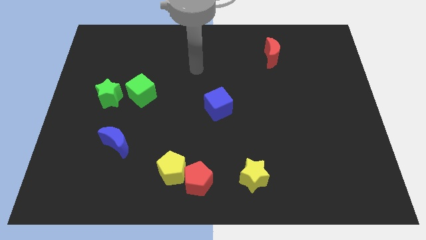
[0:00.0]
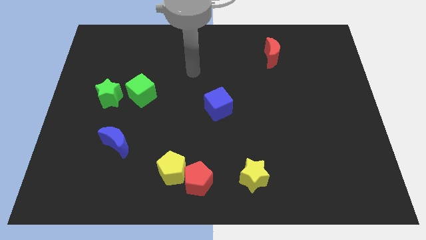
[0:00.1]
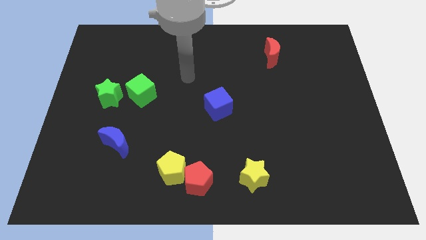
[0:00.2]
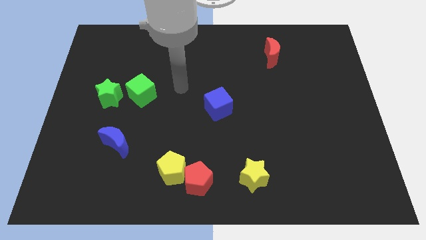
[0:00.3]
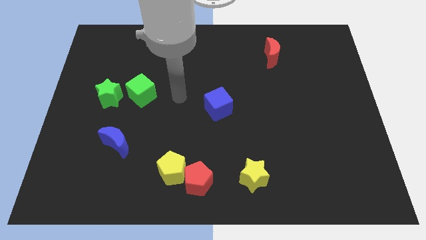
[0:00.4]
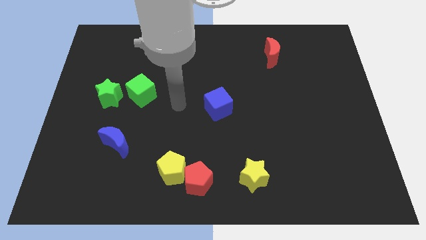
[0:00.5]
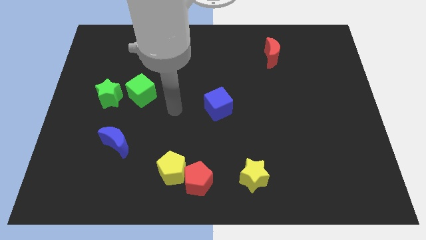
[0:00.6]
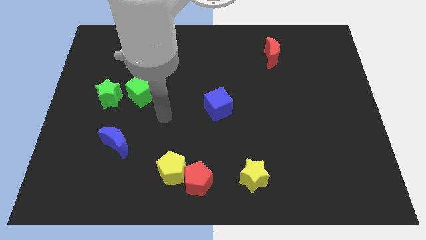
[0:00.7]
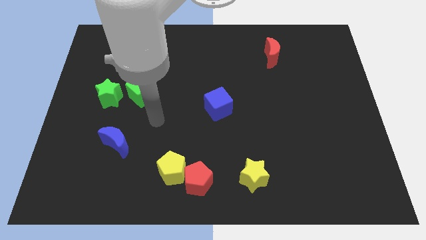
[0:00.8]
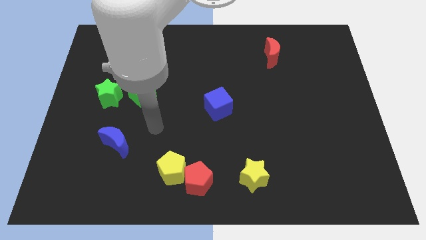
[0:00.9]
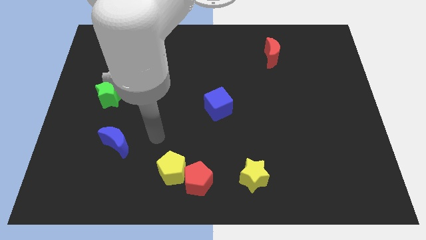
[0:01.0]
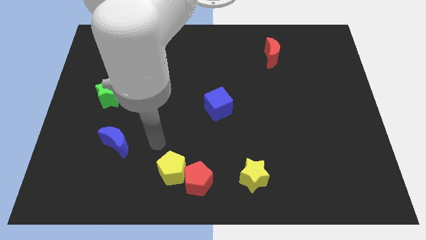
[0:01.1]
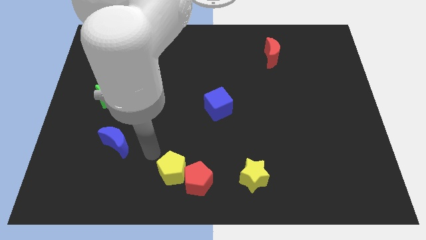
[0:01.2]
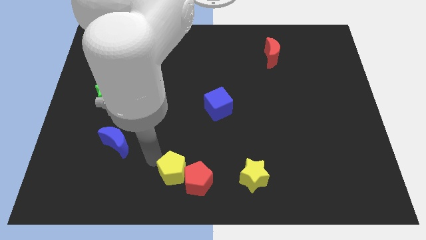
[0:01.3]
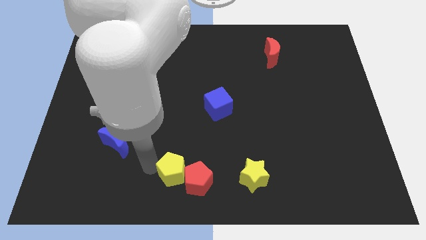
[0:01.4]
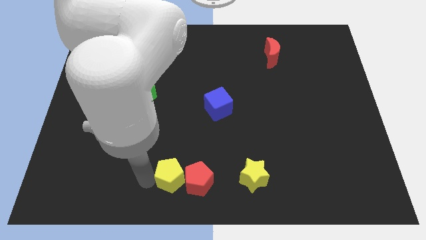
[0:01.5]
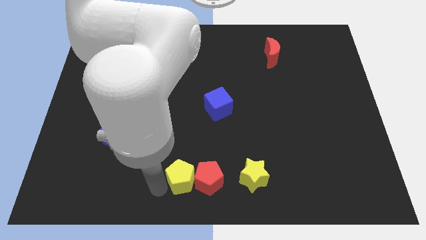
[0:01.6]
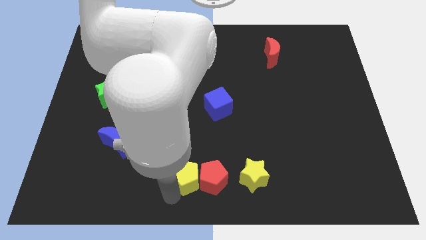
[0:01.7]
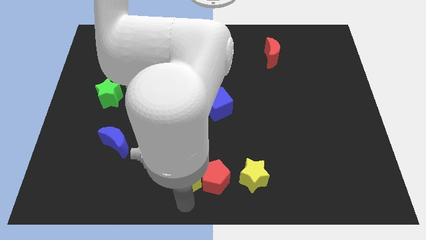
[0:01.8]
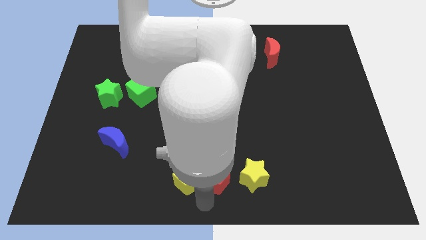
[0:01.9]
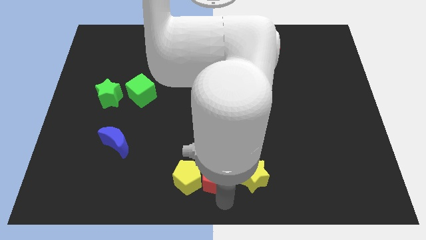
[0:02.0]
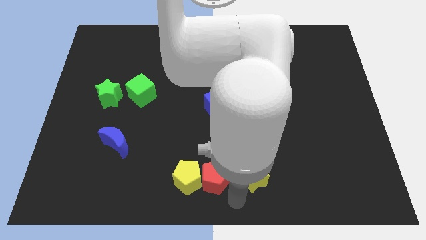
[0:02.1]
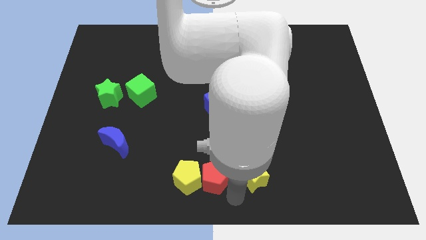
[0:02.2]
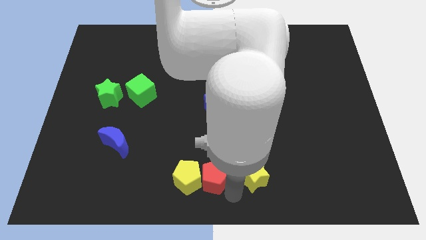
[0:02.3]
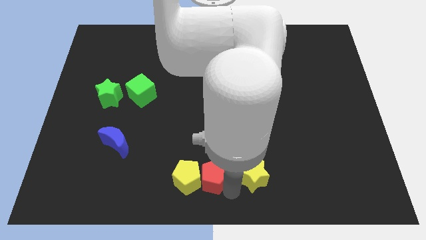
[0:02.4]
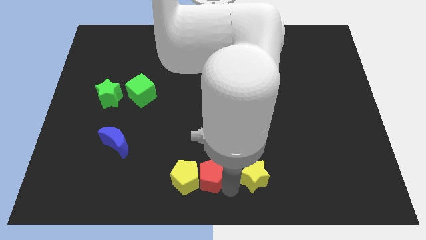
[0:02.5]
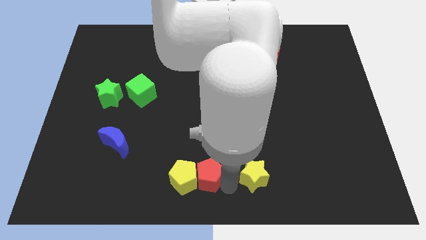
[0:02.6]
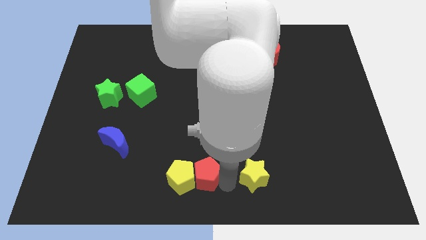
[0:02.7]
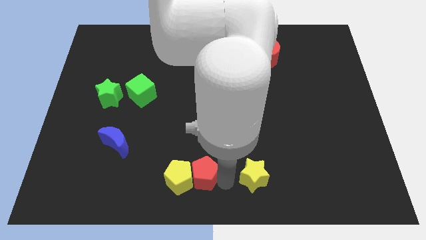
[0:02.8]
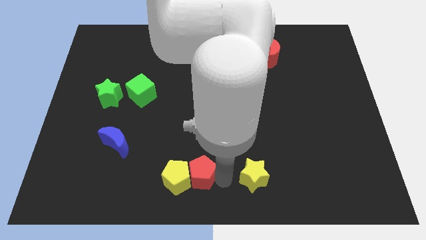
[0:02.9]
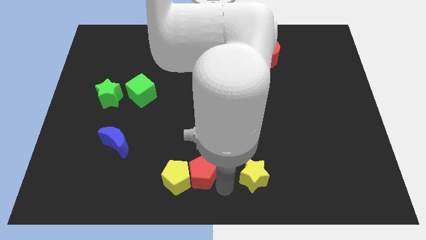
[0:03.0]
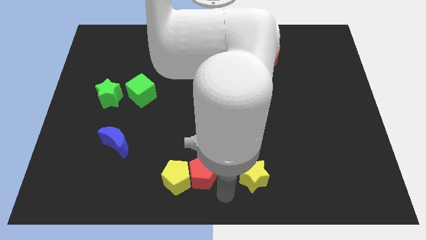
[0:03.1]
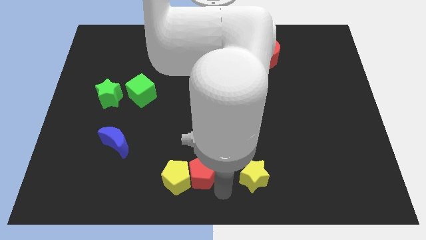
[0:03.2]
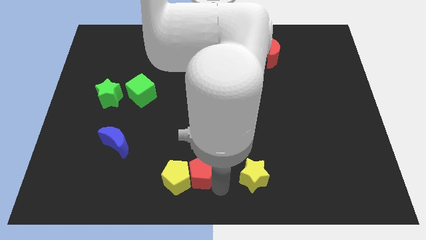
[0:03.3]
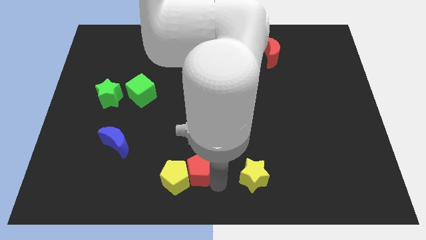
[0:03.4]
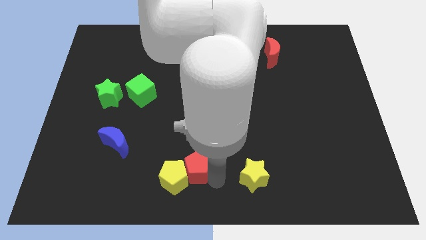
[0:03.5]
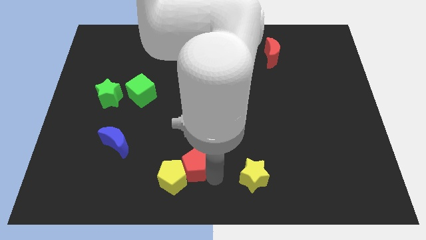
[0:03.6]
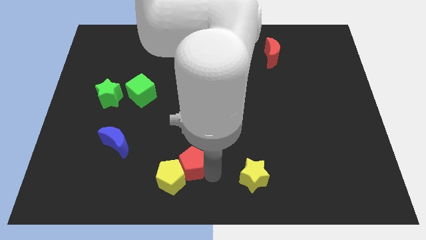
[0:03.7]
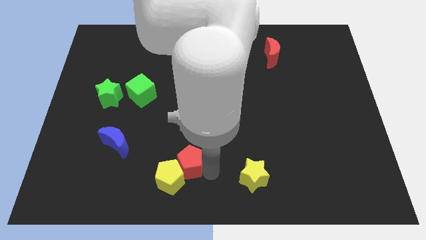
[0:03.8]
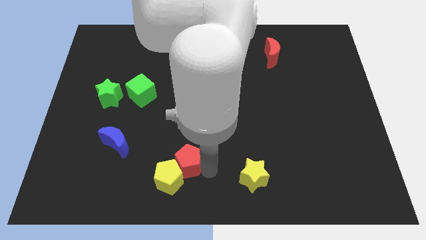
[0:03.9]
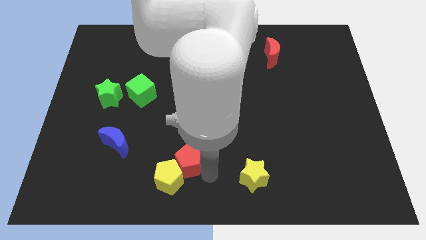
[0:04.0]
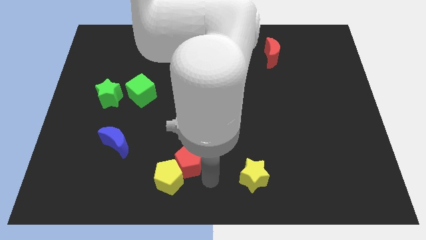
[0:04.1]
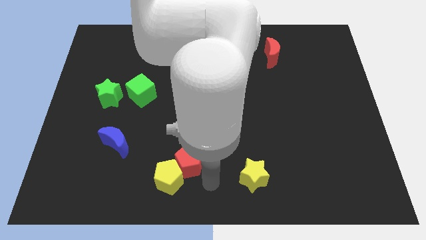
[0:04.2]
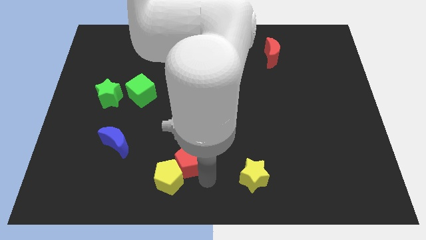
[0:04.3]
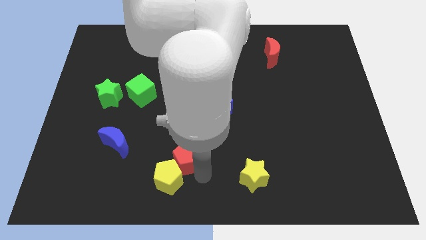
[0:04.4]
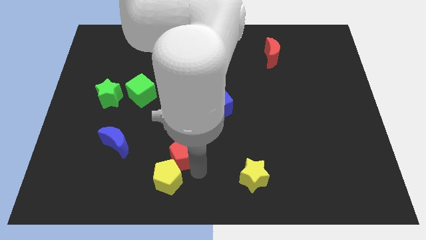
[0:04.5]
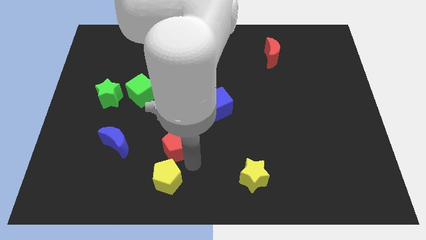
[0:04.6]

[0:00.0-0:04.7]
slightly move the red pentagon upwards and then to the left

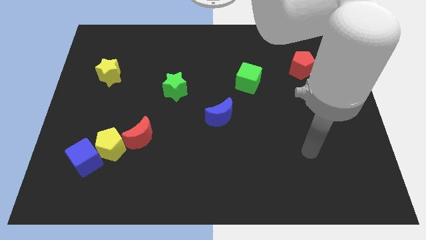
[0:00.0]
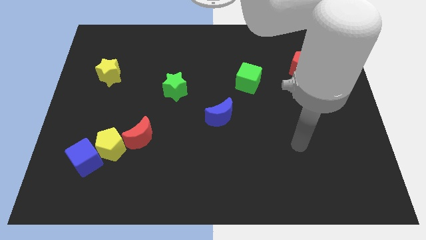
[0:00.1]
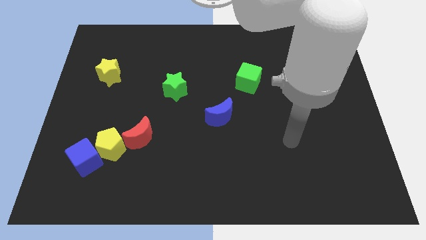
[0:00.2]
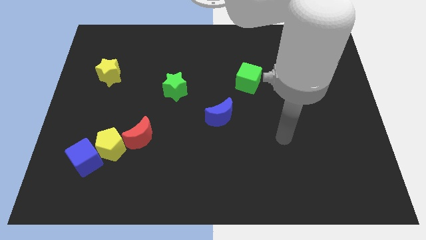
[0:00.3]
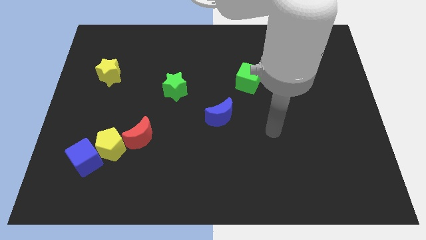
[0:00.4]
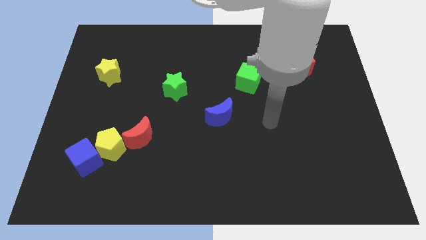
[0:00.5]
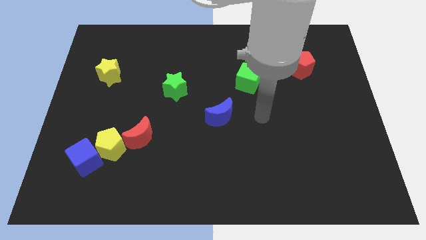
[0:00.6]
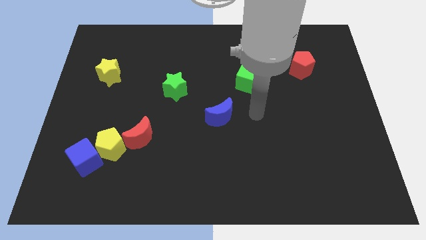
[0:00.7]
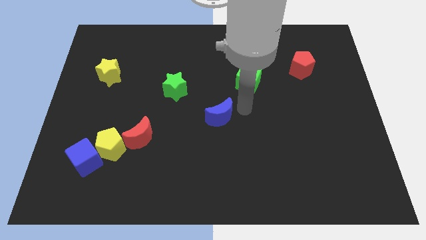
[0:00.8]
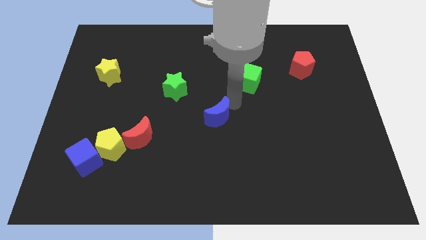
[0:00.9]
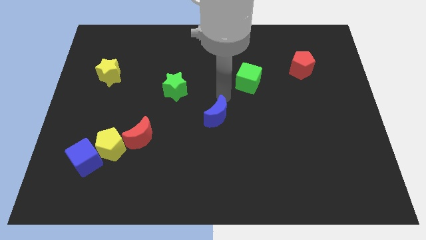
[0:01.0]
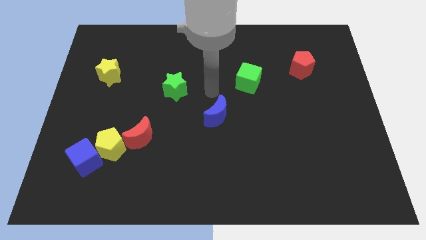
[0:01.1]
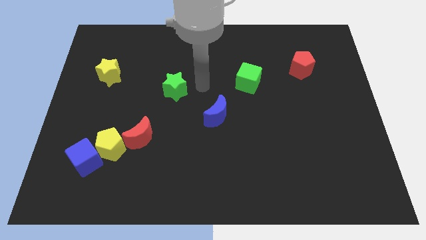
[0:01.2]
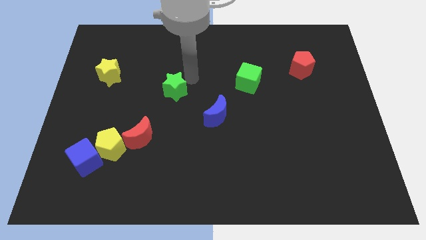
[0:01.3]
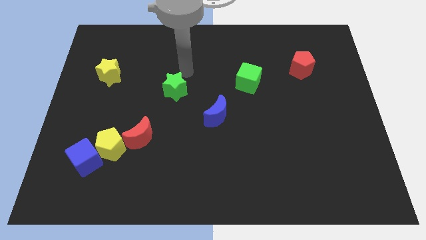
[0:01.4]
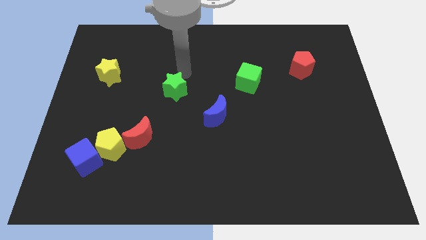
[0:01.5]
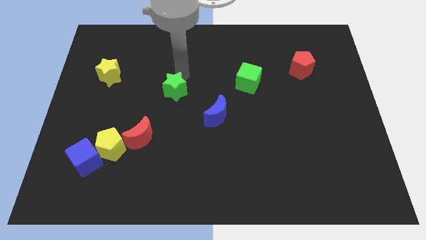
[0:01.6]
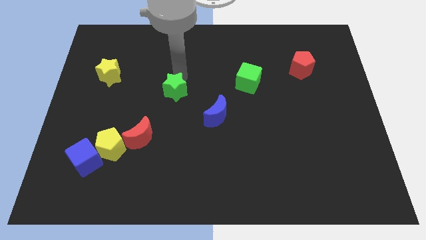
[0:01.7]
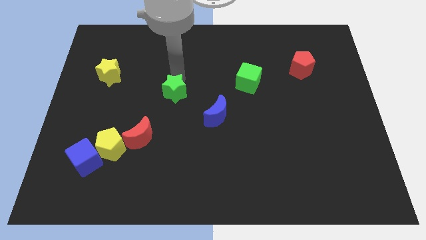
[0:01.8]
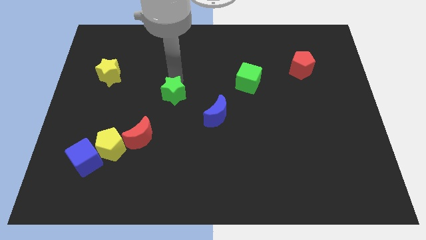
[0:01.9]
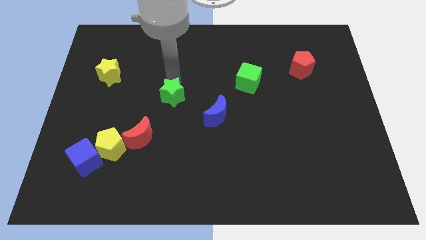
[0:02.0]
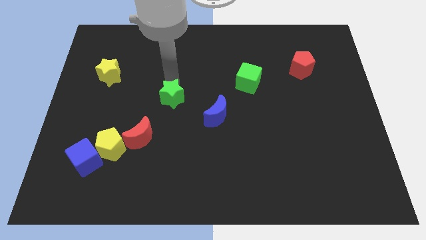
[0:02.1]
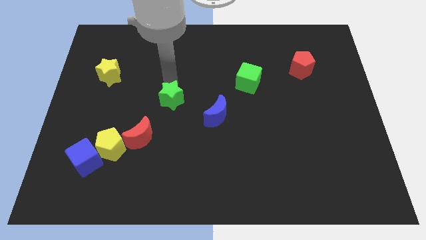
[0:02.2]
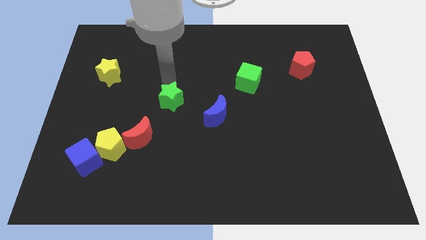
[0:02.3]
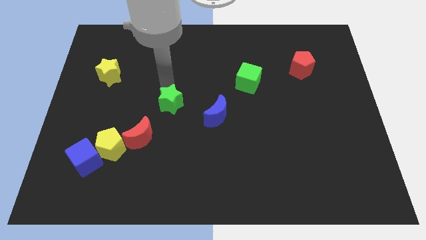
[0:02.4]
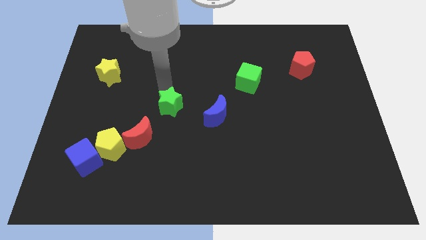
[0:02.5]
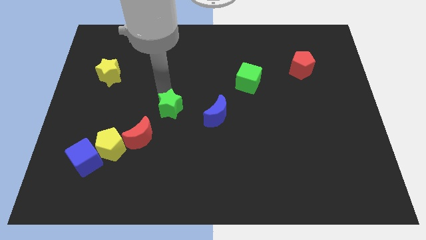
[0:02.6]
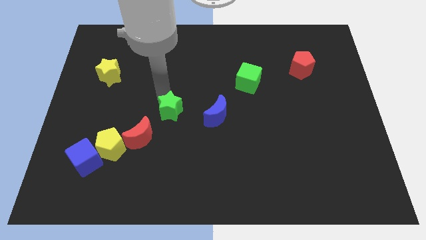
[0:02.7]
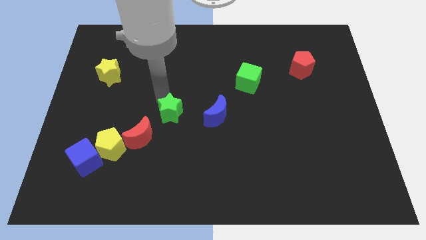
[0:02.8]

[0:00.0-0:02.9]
push the green star a bit downwards

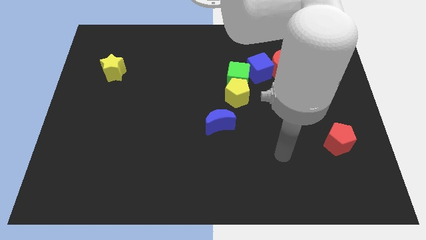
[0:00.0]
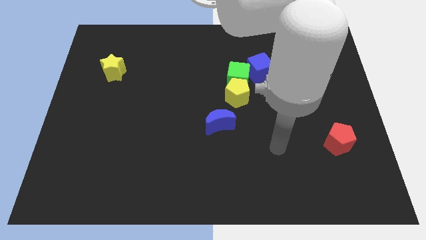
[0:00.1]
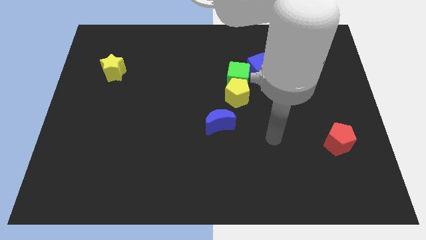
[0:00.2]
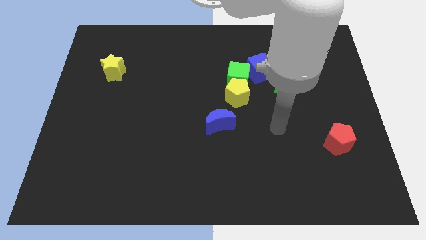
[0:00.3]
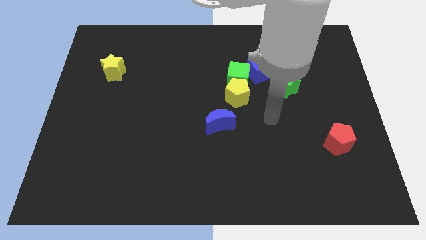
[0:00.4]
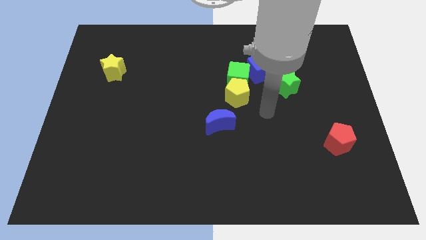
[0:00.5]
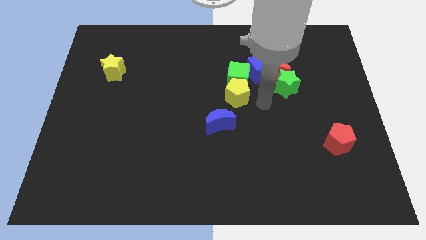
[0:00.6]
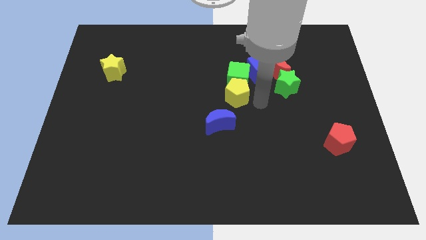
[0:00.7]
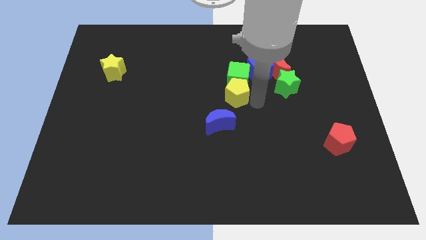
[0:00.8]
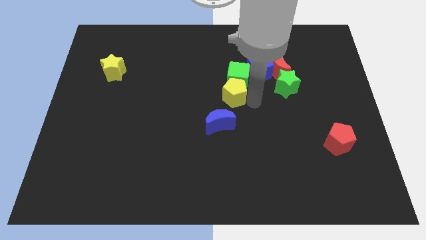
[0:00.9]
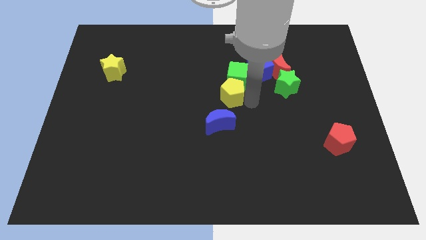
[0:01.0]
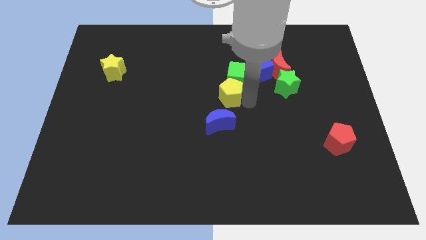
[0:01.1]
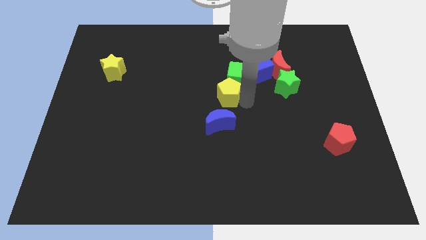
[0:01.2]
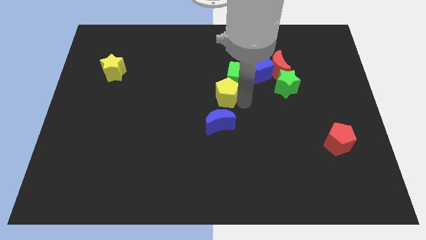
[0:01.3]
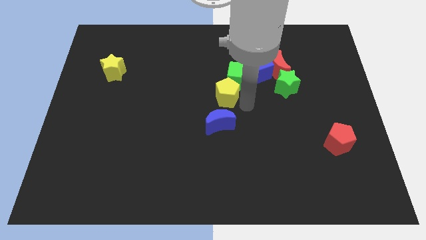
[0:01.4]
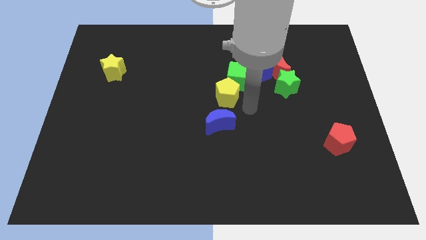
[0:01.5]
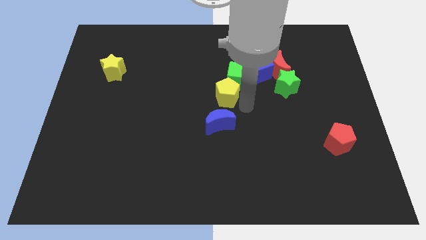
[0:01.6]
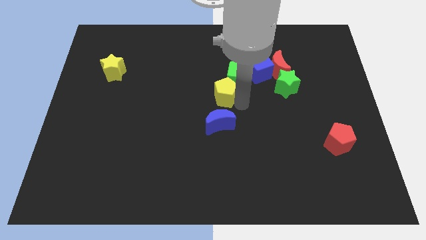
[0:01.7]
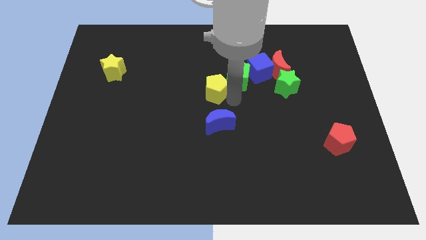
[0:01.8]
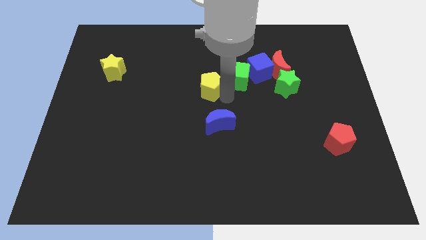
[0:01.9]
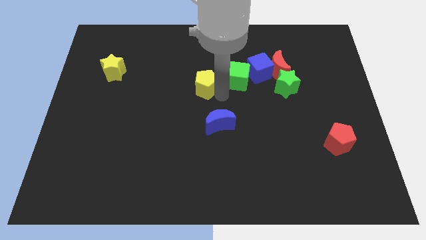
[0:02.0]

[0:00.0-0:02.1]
push the yellow pentagon up and to the left diagonally a little bit
